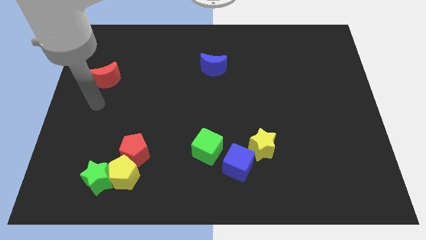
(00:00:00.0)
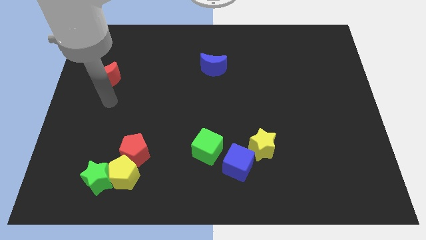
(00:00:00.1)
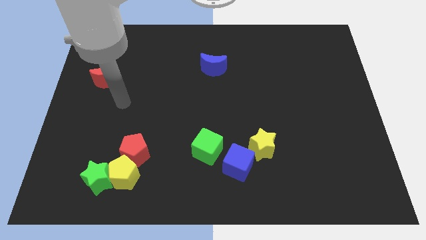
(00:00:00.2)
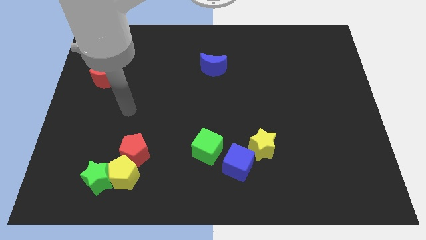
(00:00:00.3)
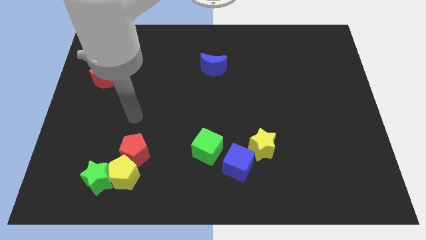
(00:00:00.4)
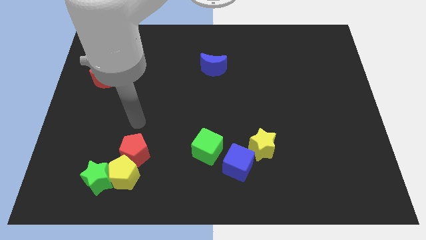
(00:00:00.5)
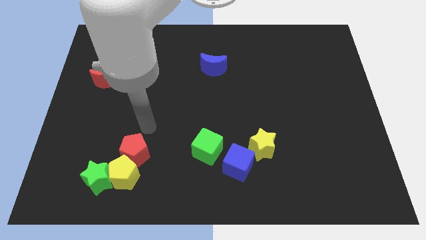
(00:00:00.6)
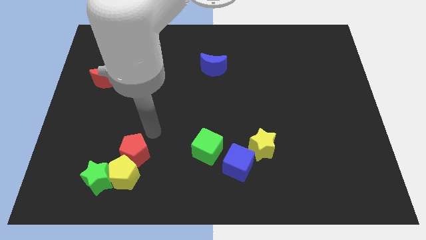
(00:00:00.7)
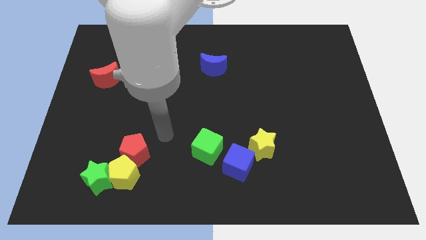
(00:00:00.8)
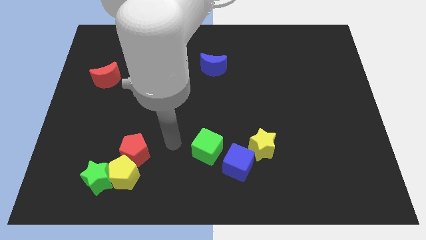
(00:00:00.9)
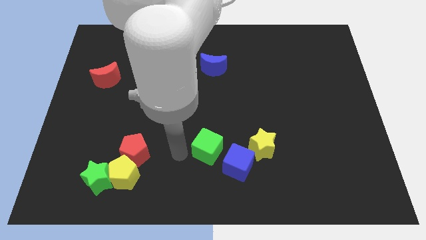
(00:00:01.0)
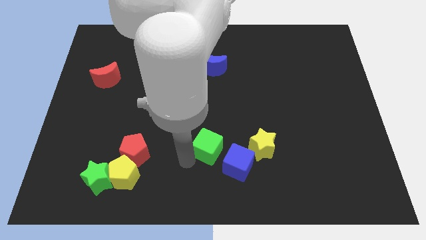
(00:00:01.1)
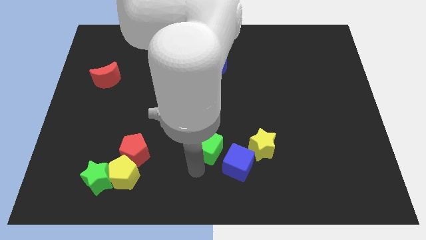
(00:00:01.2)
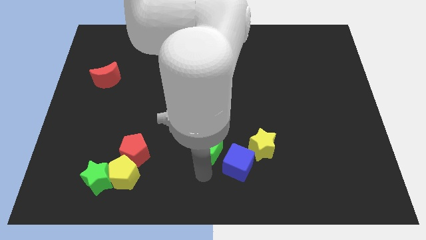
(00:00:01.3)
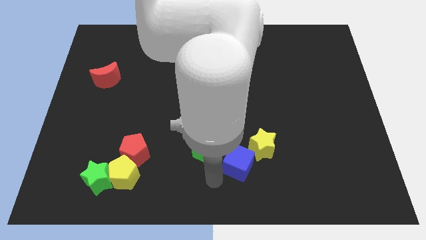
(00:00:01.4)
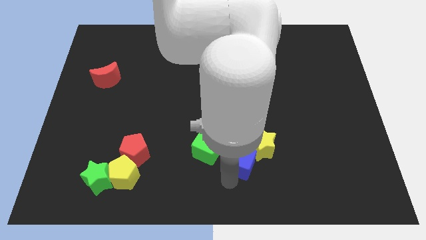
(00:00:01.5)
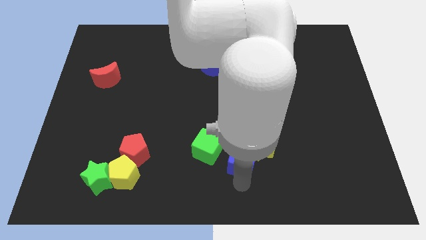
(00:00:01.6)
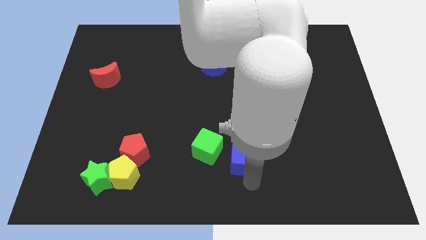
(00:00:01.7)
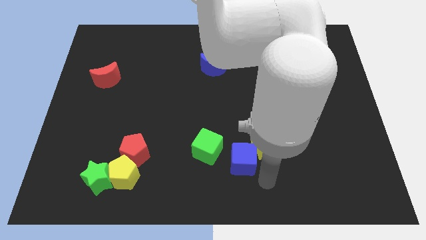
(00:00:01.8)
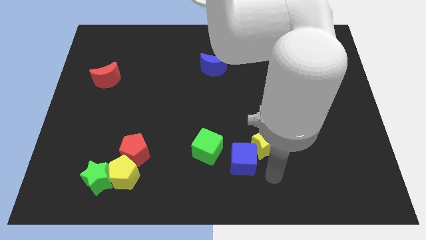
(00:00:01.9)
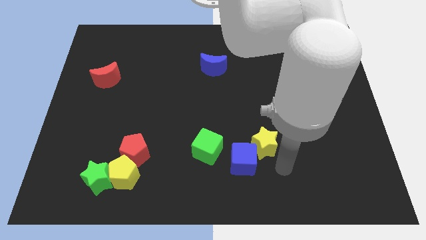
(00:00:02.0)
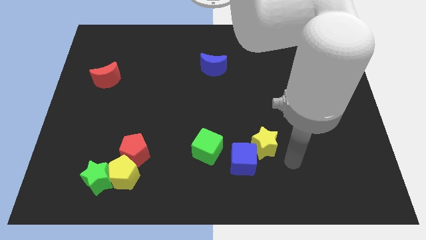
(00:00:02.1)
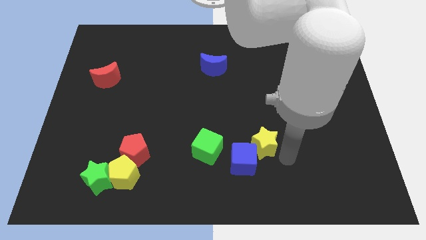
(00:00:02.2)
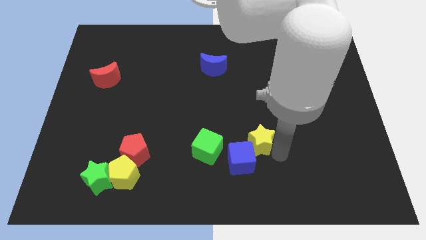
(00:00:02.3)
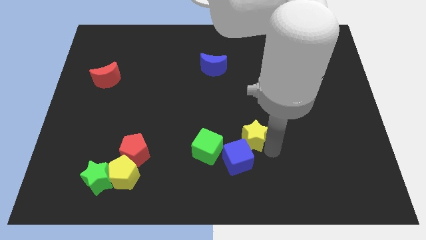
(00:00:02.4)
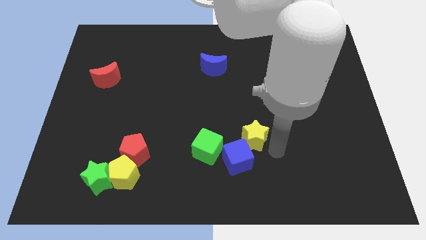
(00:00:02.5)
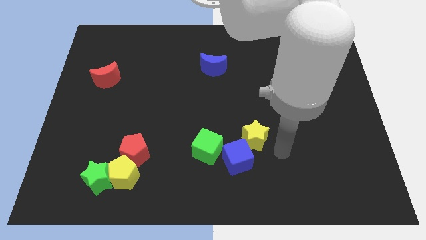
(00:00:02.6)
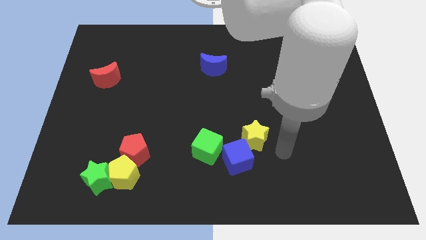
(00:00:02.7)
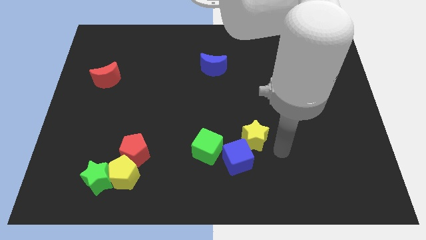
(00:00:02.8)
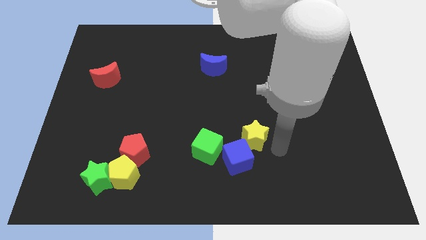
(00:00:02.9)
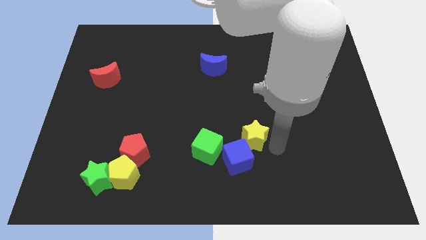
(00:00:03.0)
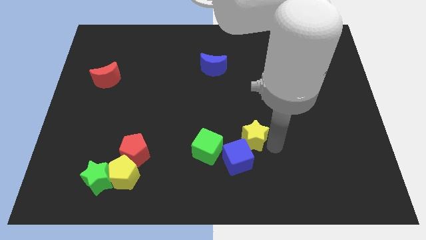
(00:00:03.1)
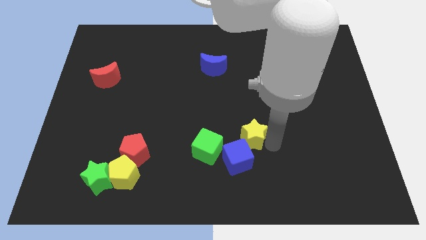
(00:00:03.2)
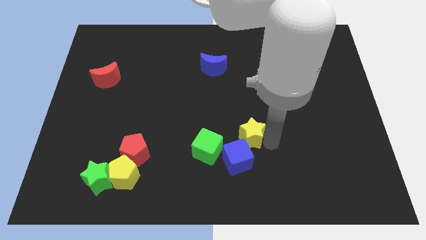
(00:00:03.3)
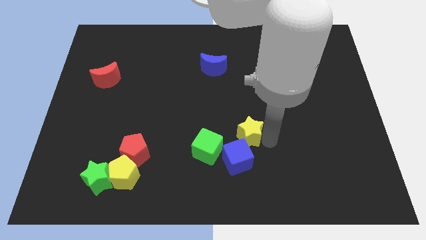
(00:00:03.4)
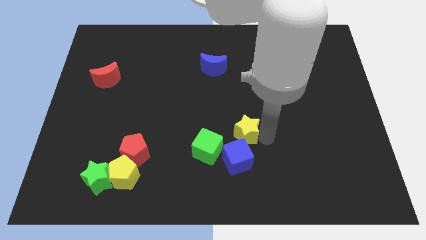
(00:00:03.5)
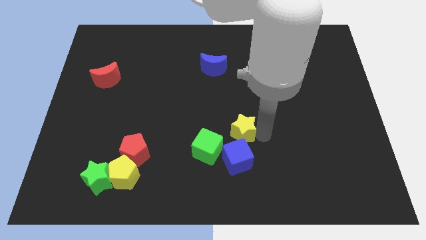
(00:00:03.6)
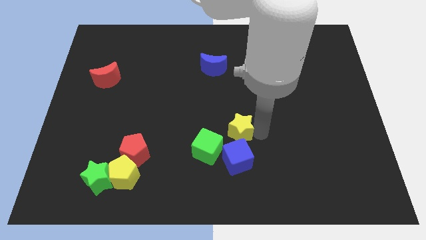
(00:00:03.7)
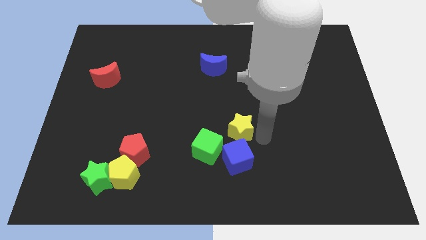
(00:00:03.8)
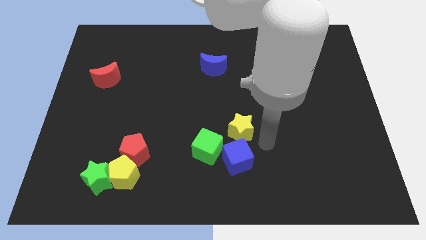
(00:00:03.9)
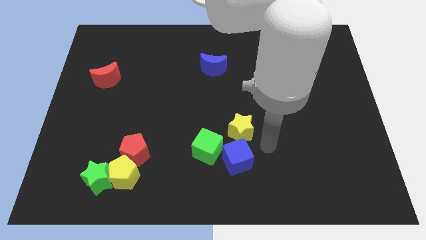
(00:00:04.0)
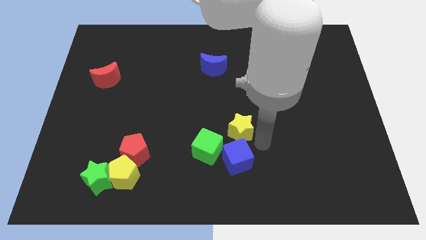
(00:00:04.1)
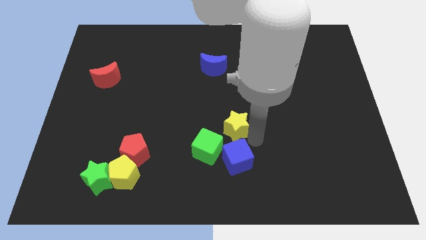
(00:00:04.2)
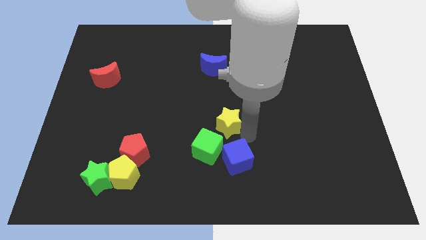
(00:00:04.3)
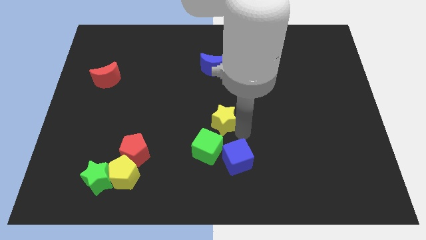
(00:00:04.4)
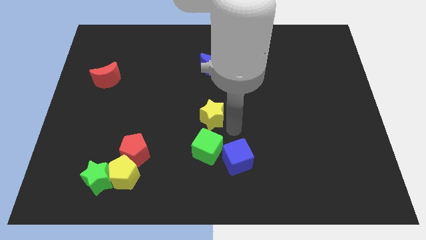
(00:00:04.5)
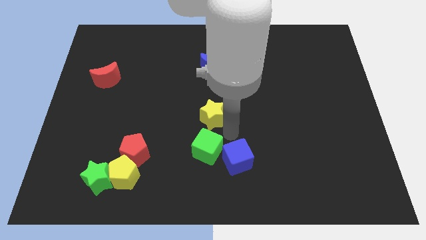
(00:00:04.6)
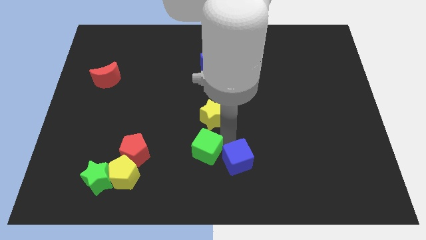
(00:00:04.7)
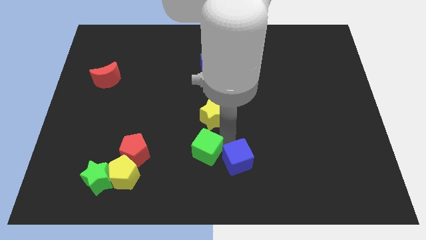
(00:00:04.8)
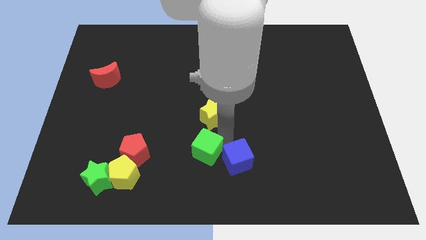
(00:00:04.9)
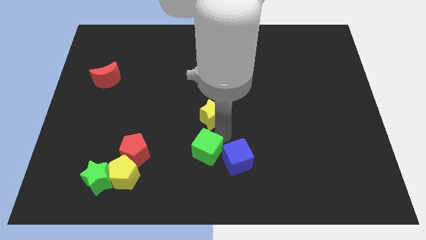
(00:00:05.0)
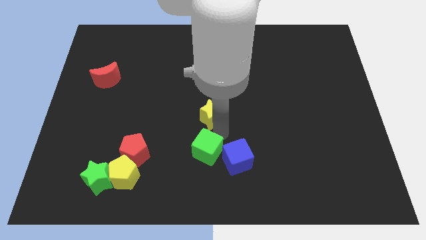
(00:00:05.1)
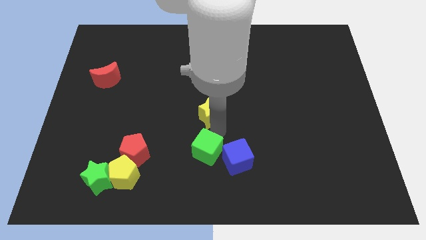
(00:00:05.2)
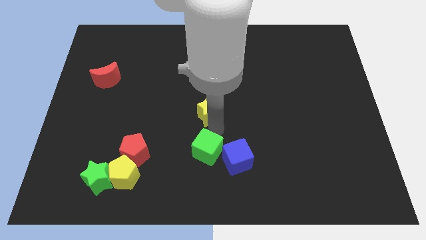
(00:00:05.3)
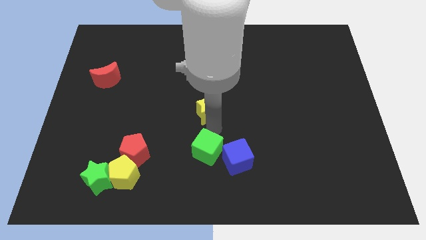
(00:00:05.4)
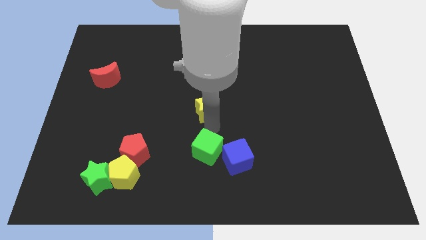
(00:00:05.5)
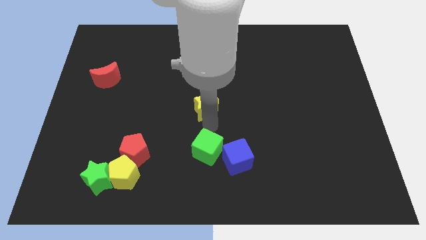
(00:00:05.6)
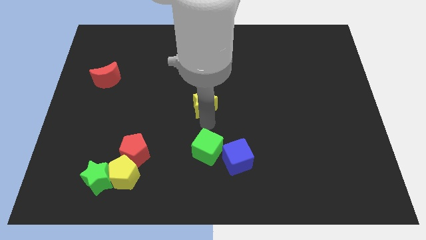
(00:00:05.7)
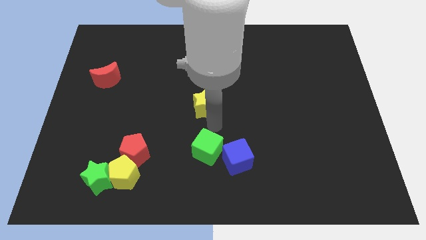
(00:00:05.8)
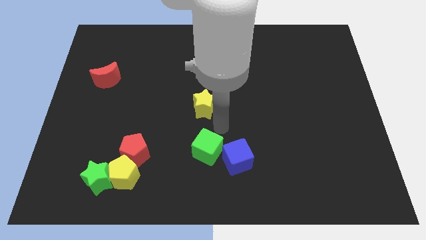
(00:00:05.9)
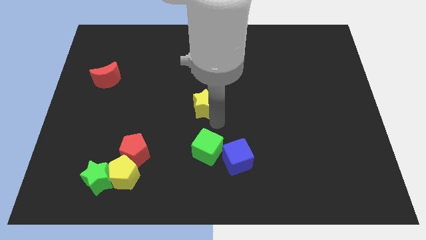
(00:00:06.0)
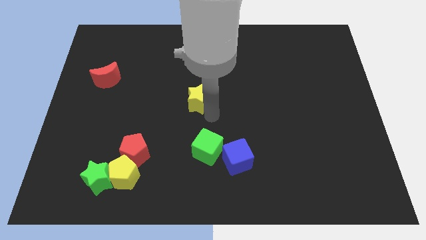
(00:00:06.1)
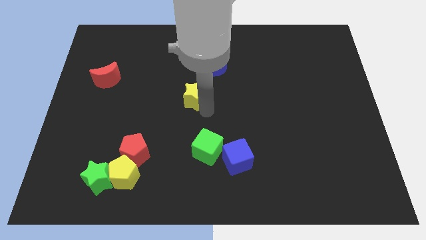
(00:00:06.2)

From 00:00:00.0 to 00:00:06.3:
slide the yellow star upwards and then to the left

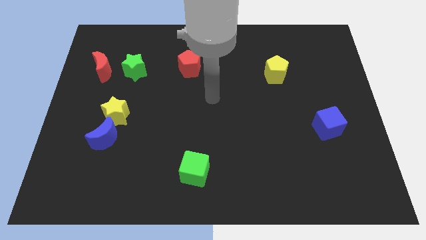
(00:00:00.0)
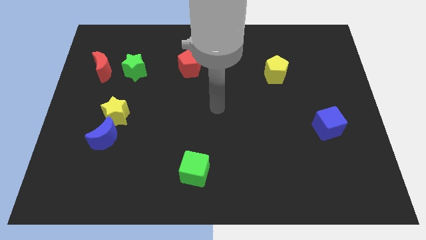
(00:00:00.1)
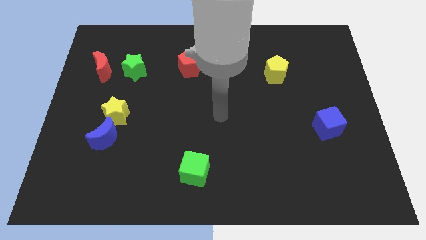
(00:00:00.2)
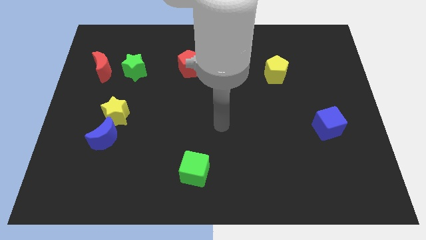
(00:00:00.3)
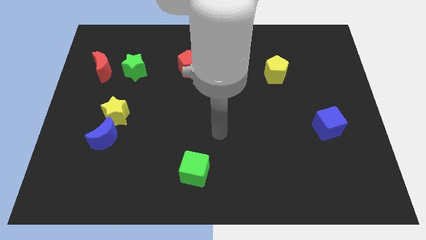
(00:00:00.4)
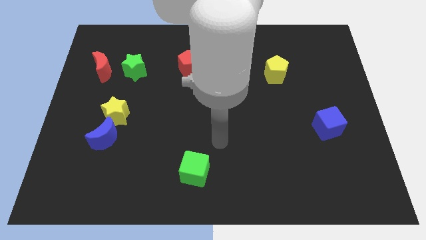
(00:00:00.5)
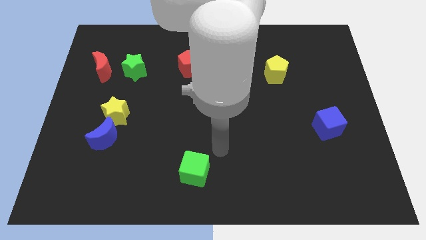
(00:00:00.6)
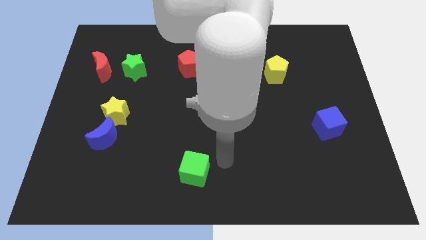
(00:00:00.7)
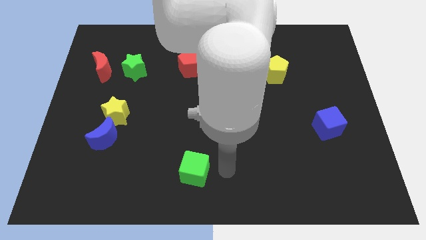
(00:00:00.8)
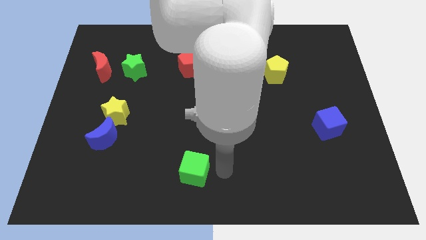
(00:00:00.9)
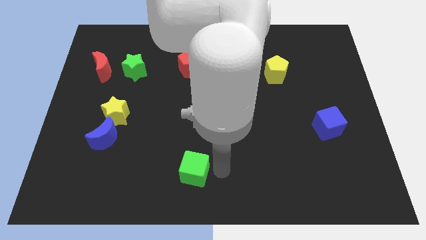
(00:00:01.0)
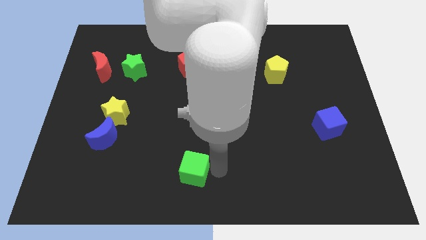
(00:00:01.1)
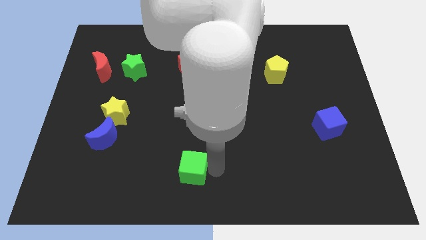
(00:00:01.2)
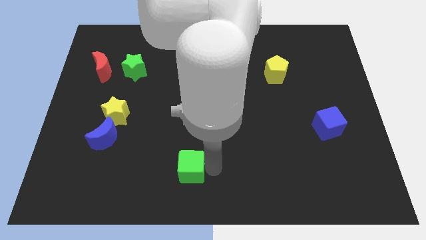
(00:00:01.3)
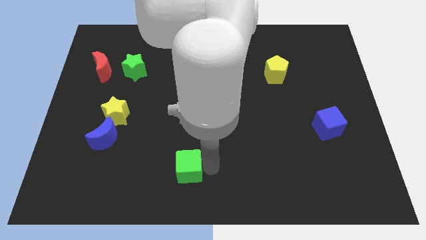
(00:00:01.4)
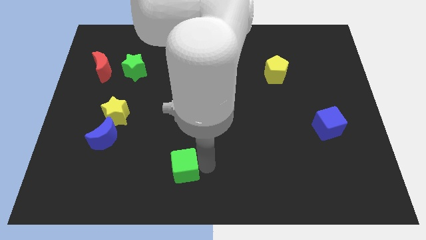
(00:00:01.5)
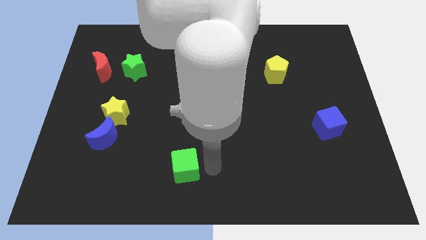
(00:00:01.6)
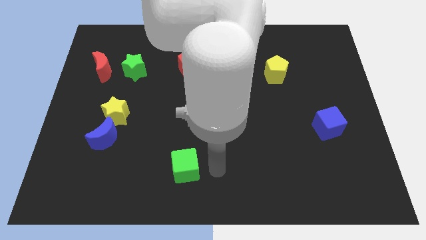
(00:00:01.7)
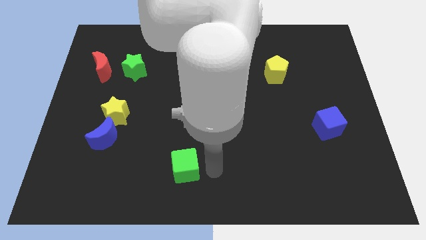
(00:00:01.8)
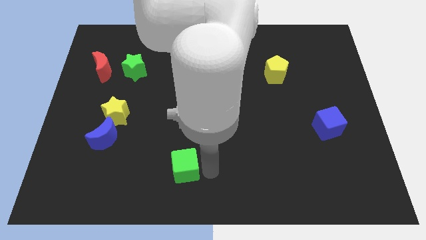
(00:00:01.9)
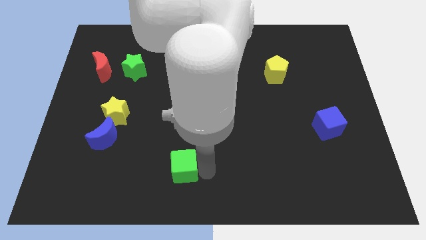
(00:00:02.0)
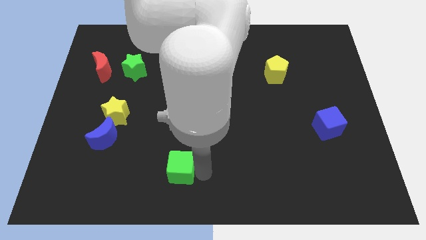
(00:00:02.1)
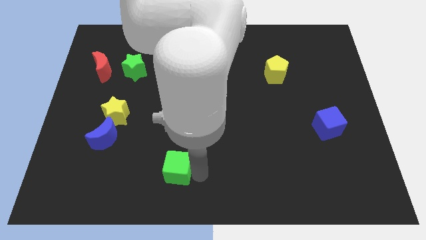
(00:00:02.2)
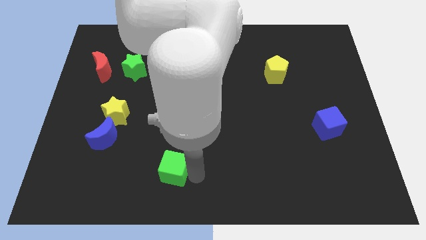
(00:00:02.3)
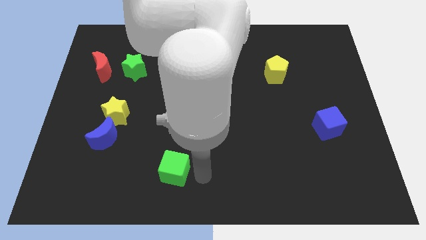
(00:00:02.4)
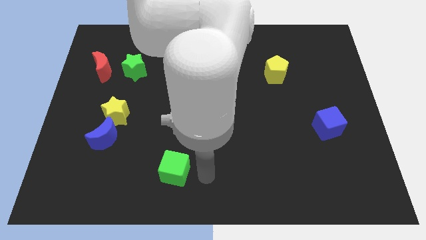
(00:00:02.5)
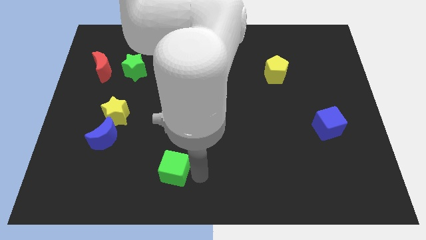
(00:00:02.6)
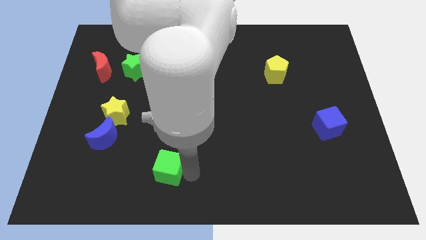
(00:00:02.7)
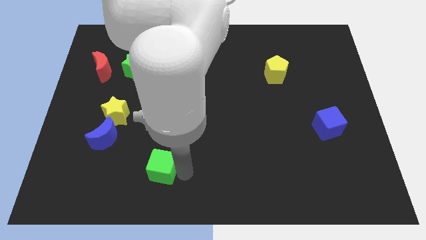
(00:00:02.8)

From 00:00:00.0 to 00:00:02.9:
slightly push the green cube to the left
